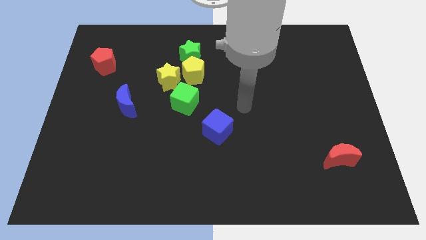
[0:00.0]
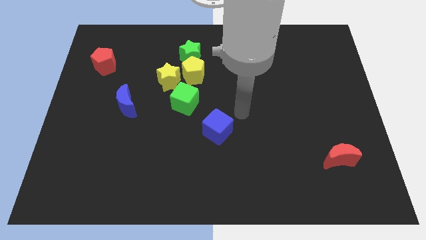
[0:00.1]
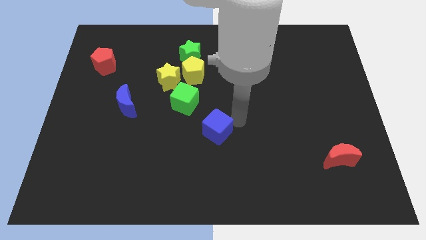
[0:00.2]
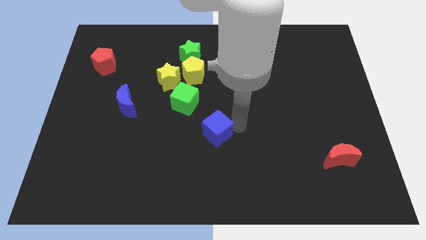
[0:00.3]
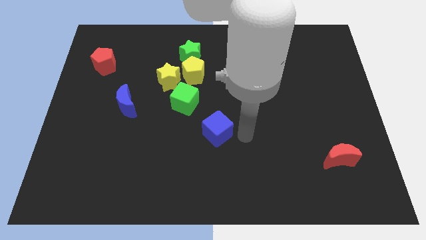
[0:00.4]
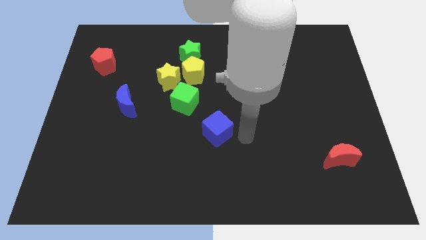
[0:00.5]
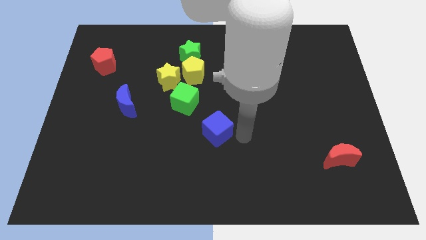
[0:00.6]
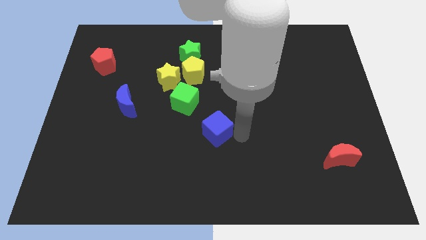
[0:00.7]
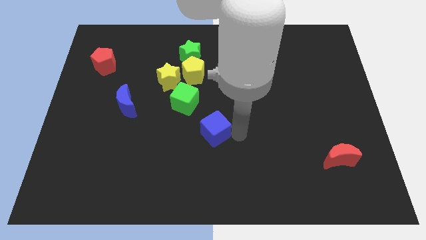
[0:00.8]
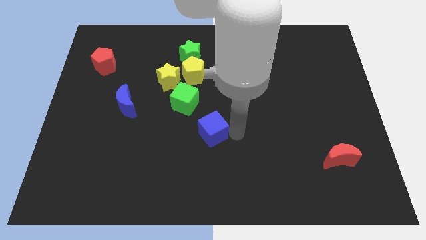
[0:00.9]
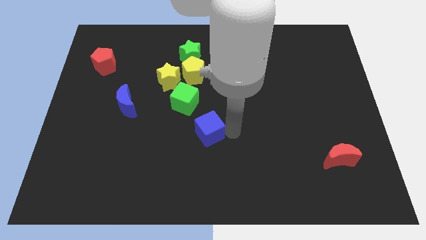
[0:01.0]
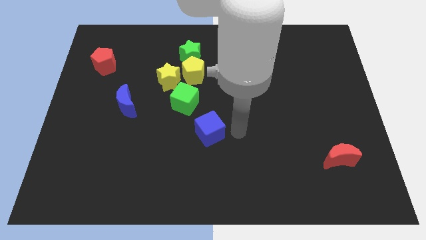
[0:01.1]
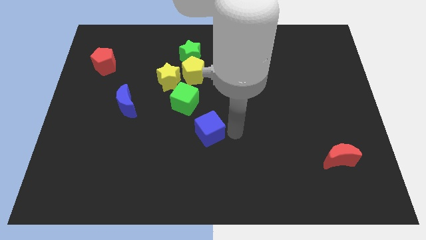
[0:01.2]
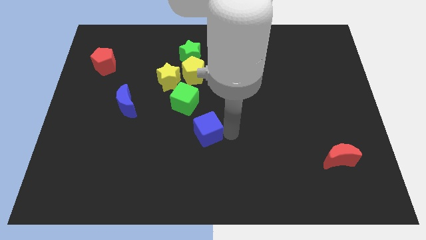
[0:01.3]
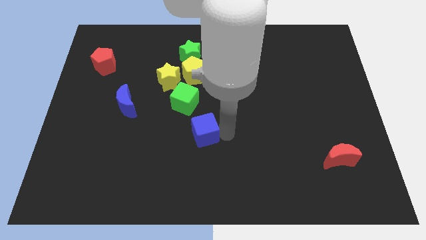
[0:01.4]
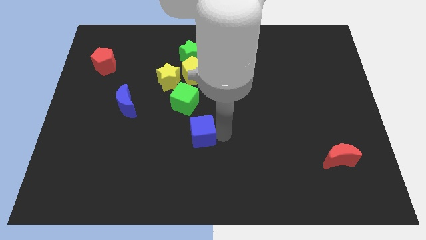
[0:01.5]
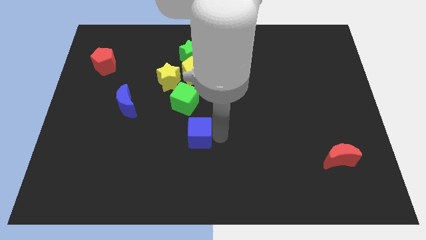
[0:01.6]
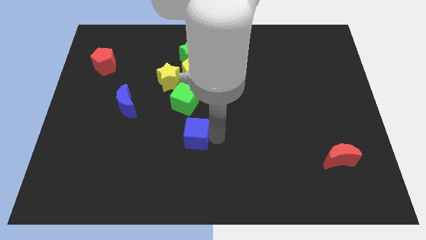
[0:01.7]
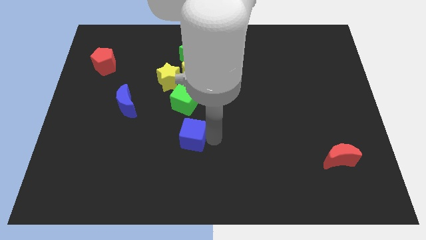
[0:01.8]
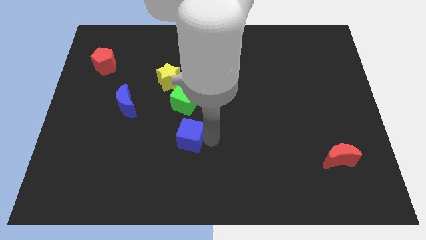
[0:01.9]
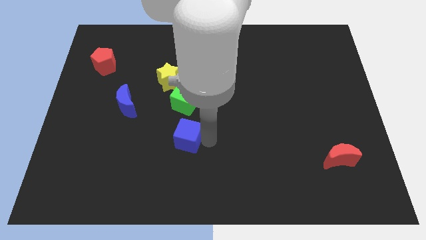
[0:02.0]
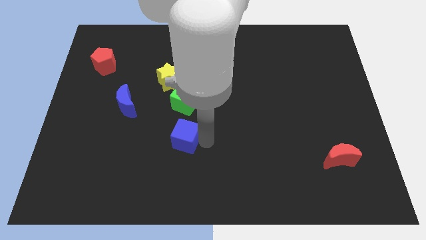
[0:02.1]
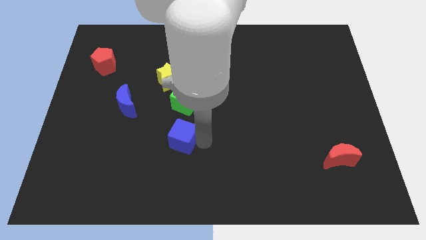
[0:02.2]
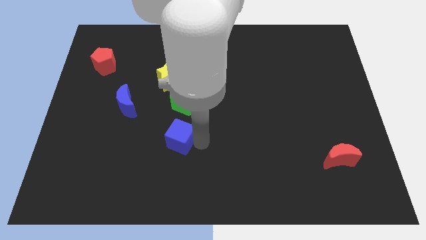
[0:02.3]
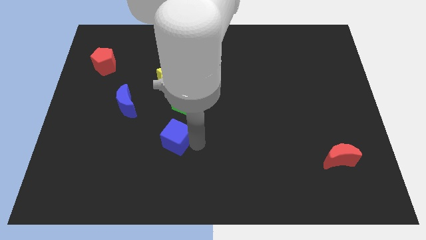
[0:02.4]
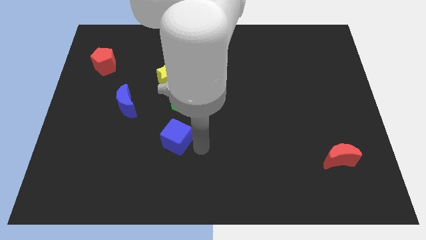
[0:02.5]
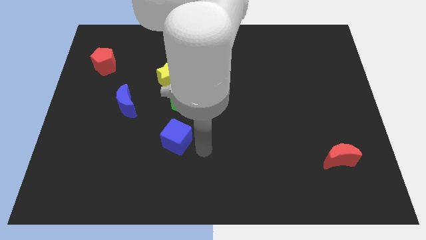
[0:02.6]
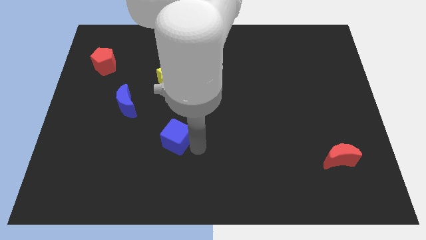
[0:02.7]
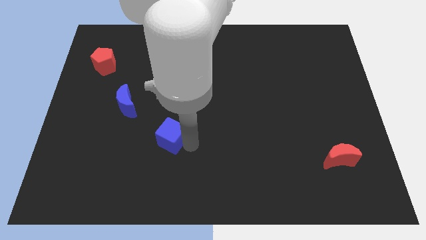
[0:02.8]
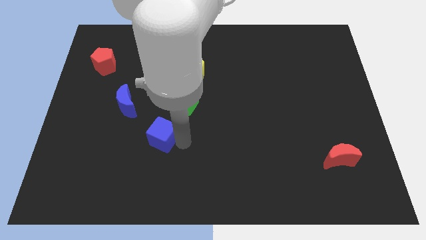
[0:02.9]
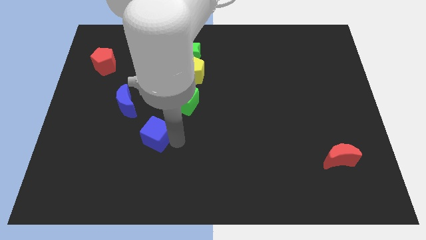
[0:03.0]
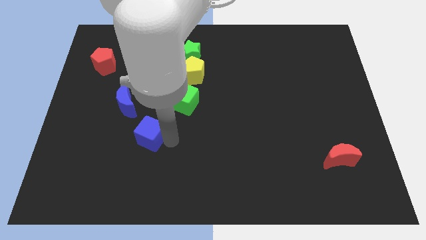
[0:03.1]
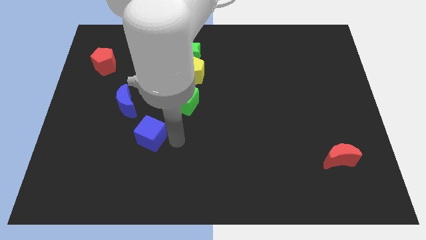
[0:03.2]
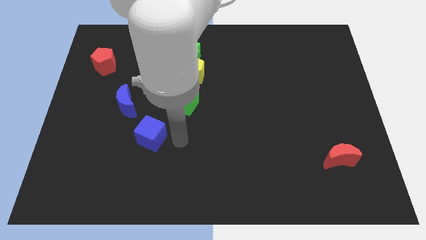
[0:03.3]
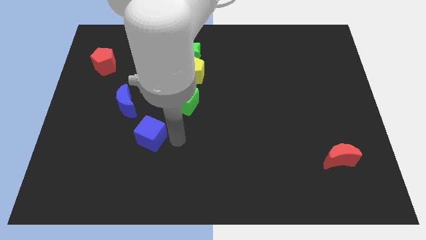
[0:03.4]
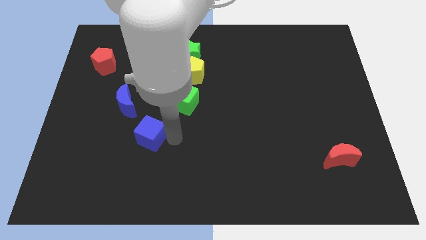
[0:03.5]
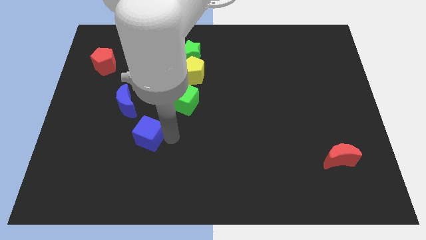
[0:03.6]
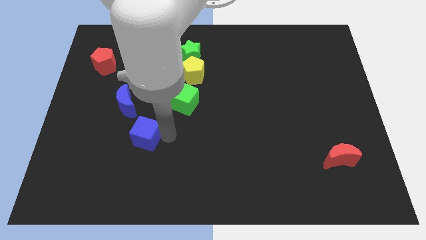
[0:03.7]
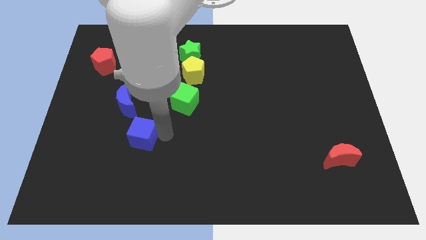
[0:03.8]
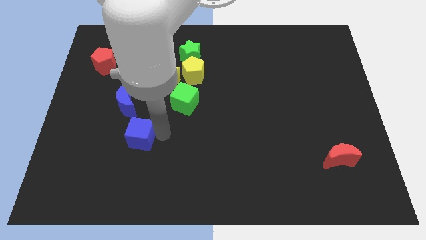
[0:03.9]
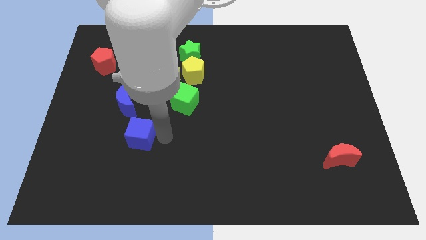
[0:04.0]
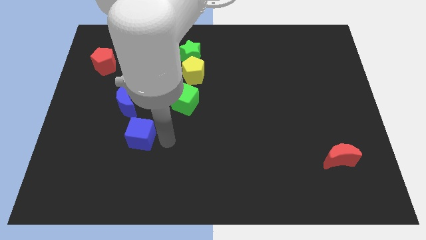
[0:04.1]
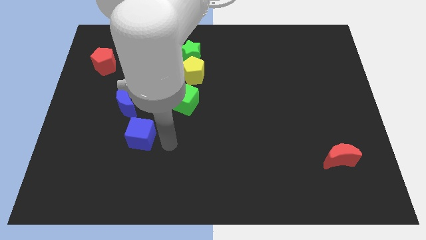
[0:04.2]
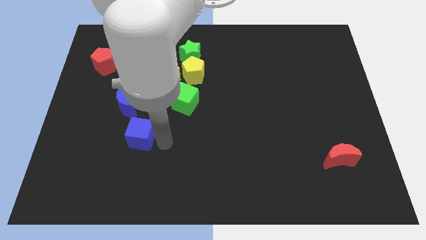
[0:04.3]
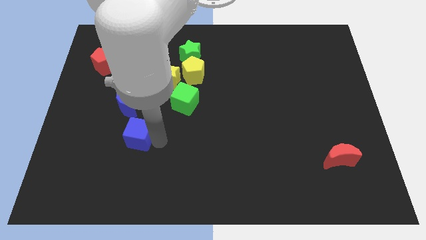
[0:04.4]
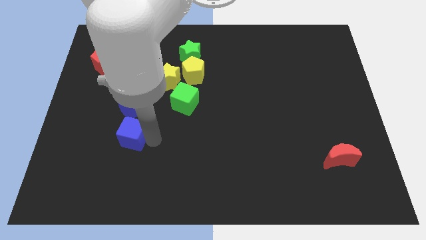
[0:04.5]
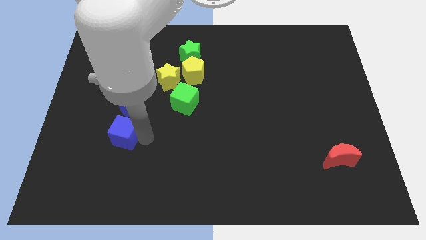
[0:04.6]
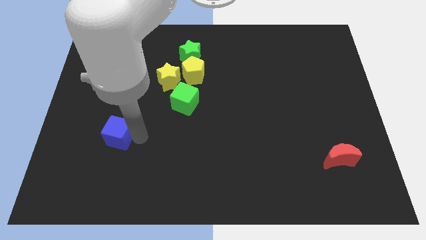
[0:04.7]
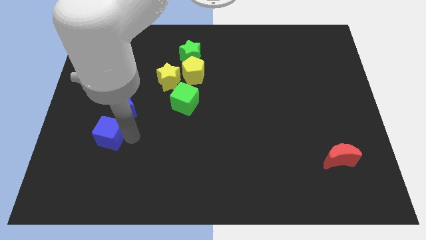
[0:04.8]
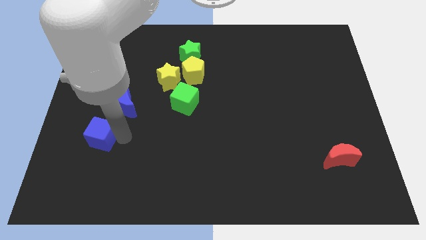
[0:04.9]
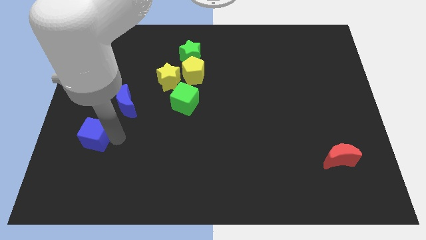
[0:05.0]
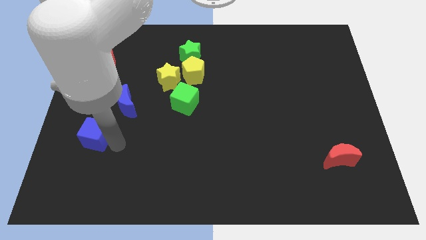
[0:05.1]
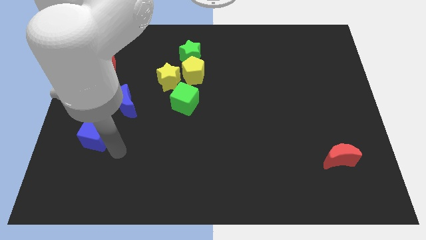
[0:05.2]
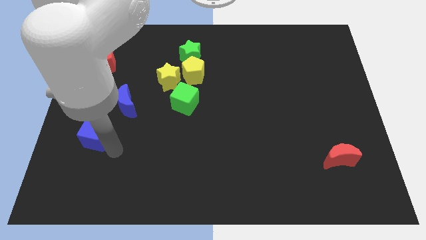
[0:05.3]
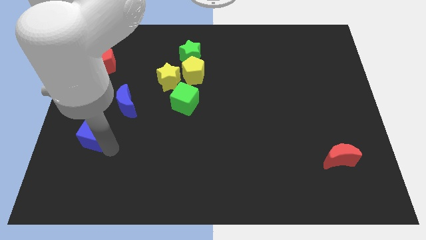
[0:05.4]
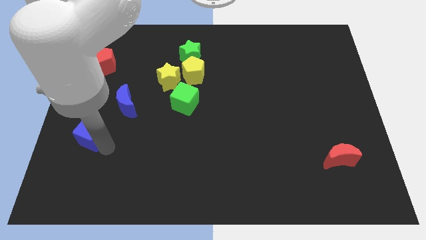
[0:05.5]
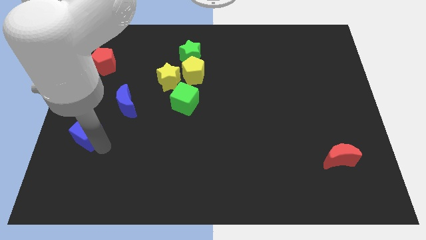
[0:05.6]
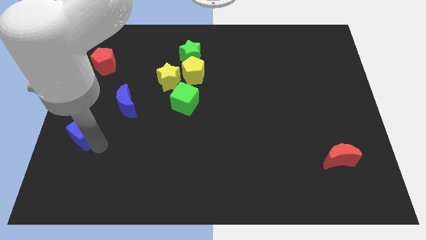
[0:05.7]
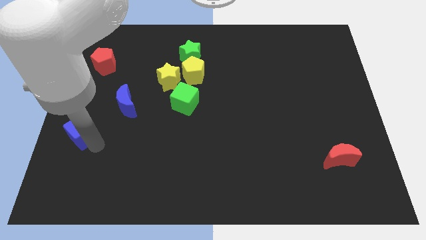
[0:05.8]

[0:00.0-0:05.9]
put the blue cube to the center left
